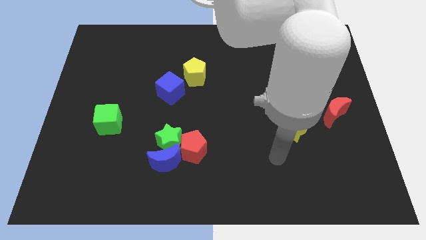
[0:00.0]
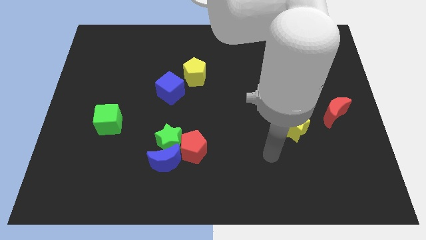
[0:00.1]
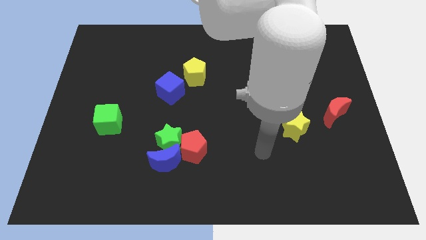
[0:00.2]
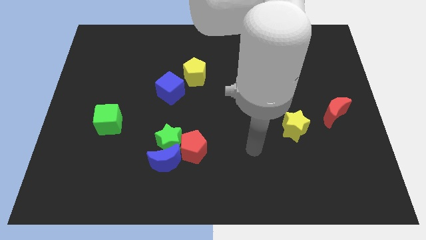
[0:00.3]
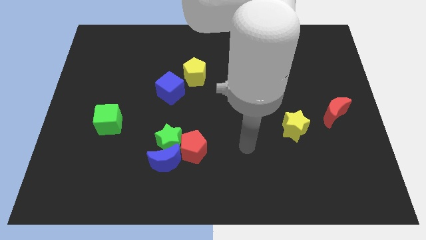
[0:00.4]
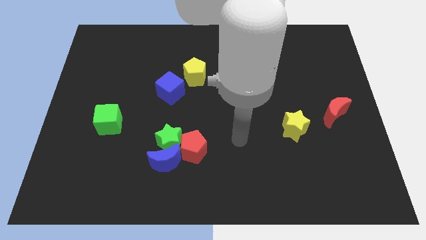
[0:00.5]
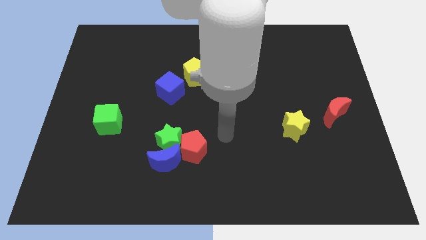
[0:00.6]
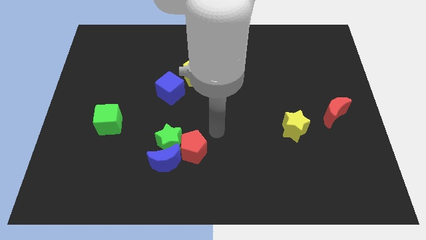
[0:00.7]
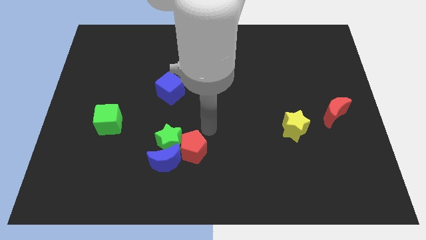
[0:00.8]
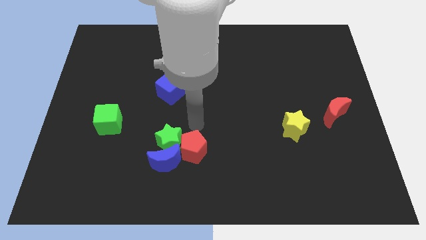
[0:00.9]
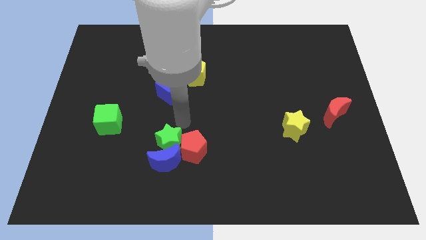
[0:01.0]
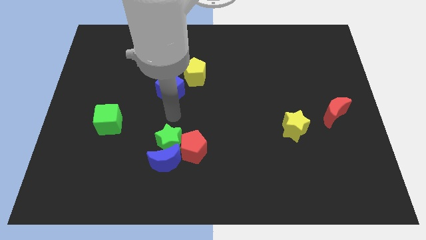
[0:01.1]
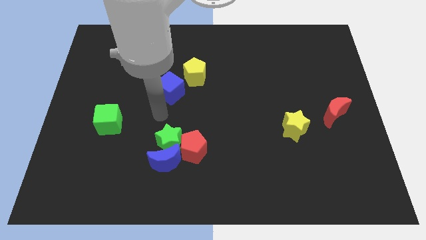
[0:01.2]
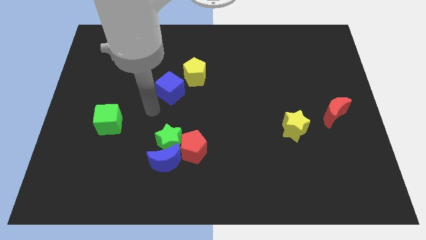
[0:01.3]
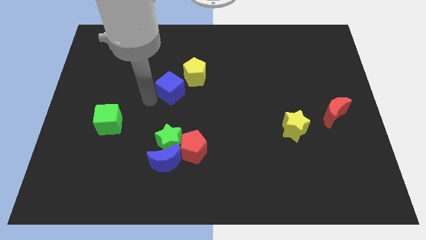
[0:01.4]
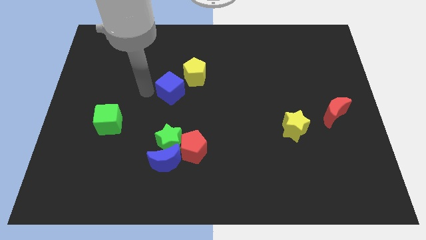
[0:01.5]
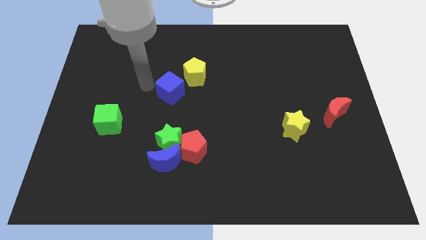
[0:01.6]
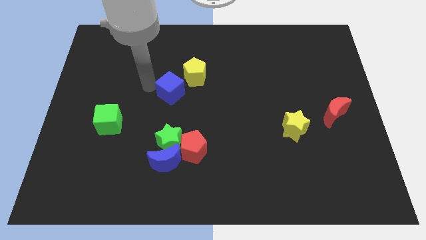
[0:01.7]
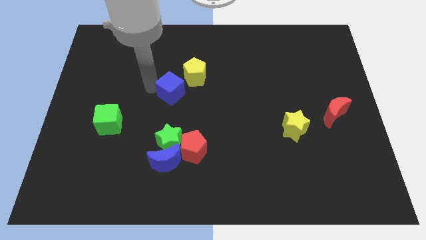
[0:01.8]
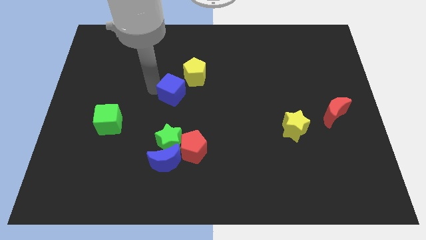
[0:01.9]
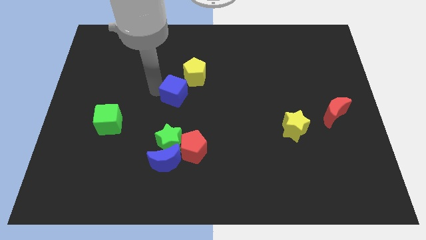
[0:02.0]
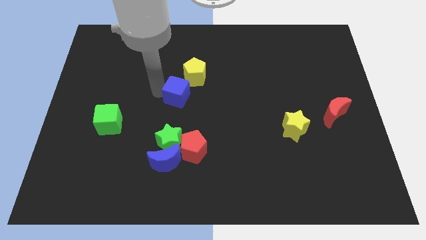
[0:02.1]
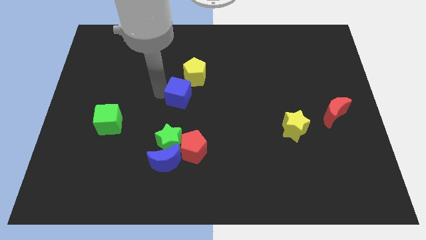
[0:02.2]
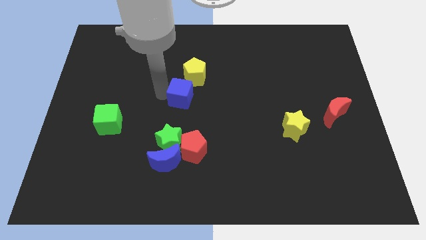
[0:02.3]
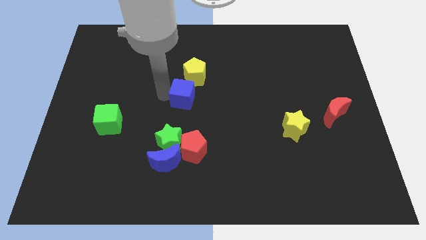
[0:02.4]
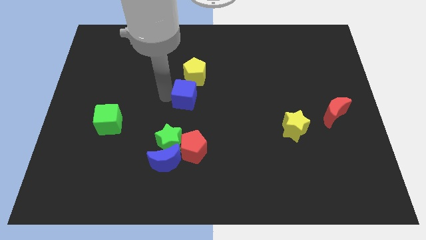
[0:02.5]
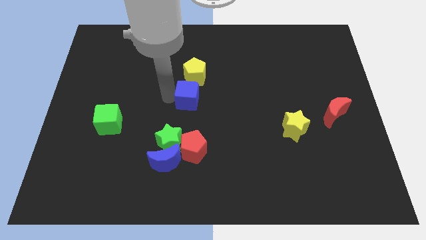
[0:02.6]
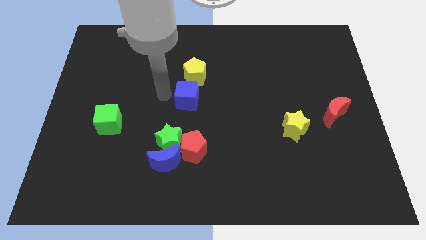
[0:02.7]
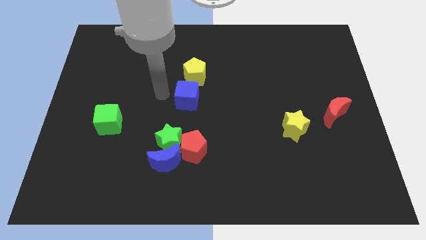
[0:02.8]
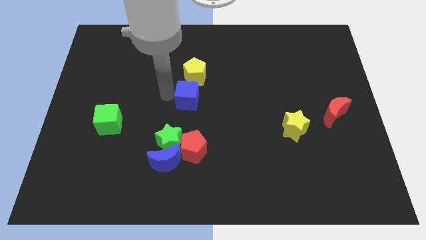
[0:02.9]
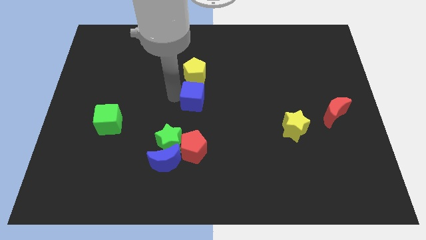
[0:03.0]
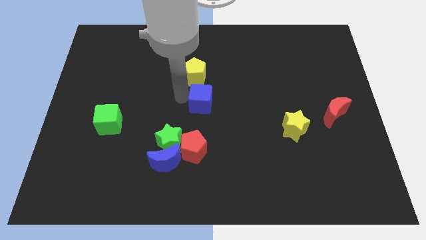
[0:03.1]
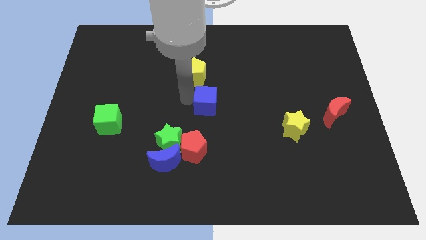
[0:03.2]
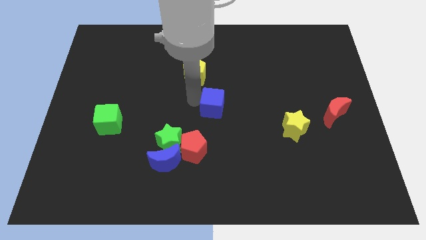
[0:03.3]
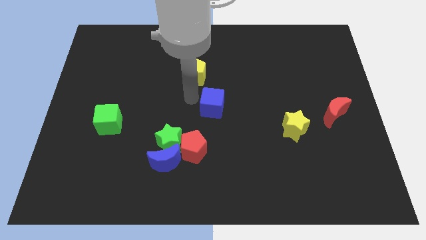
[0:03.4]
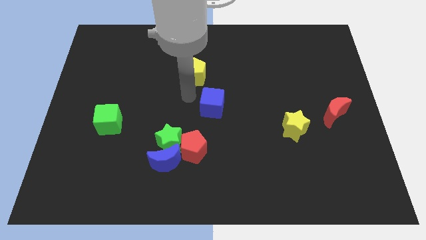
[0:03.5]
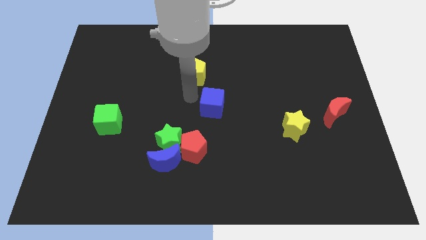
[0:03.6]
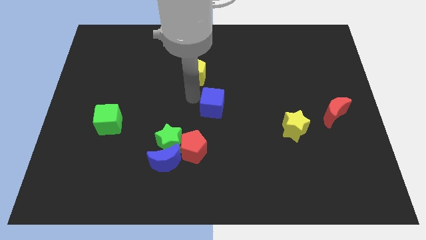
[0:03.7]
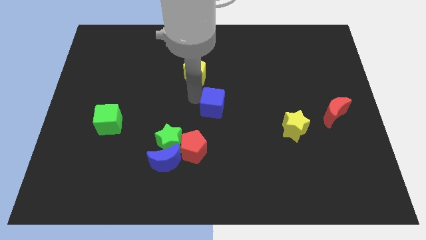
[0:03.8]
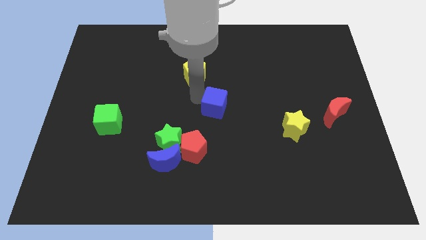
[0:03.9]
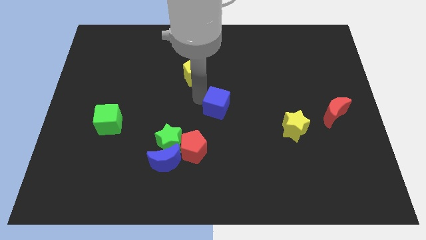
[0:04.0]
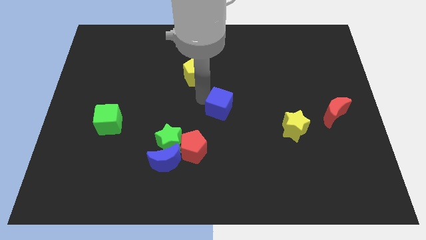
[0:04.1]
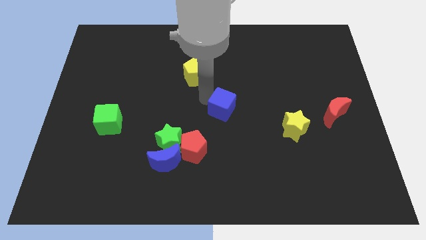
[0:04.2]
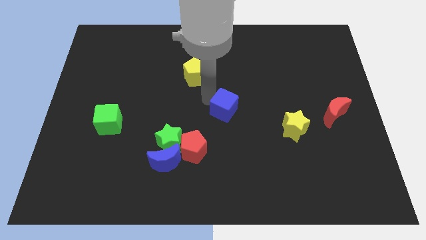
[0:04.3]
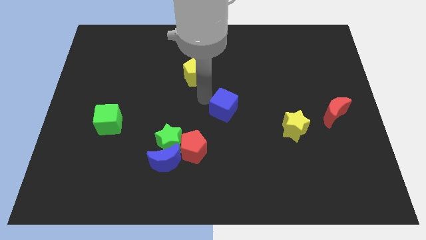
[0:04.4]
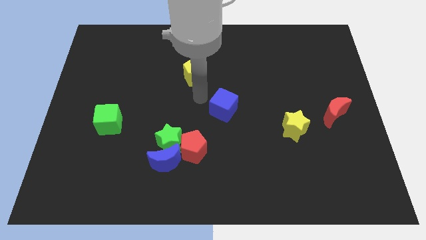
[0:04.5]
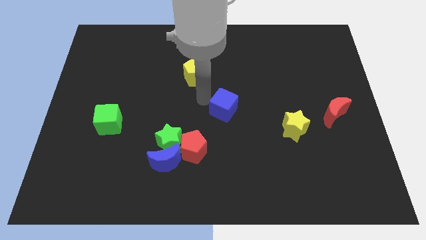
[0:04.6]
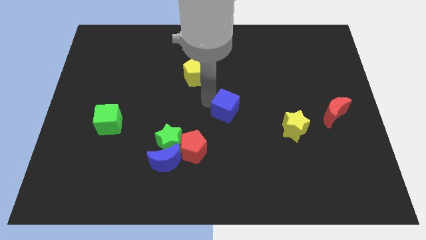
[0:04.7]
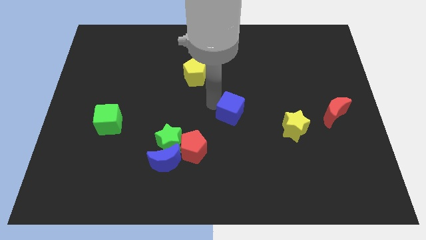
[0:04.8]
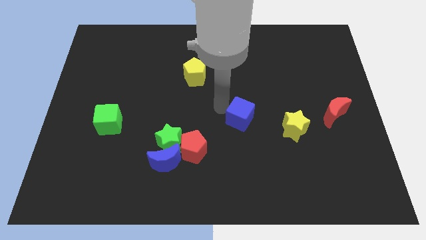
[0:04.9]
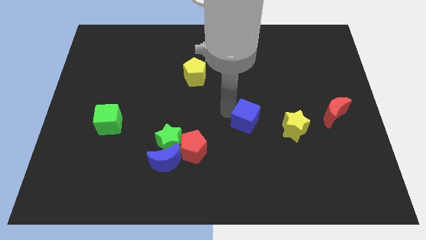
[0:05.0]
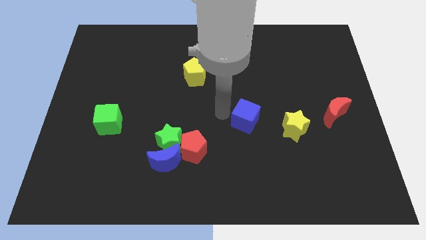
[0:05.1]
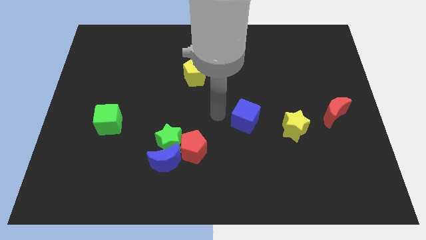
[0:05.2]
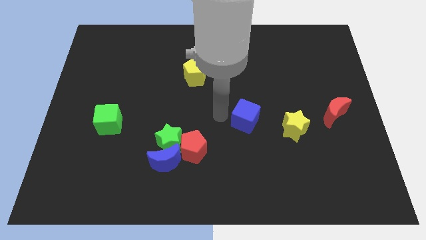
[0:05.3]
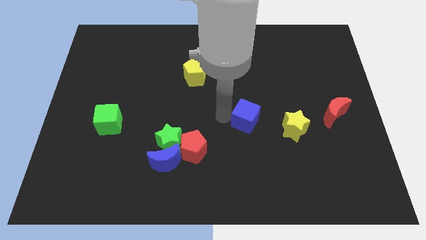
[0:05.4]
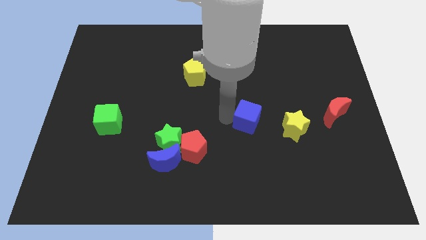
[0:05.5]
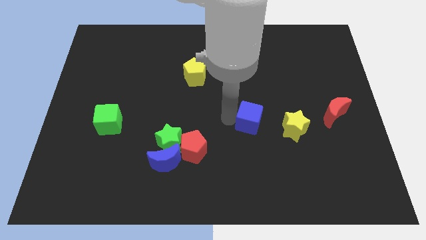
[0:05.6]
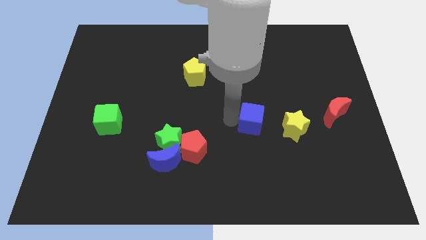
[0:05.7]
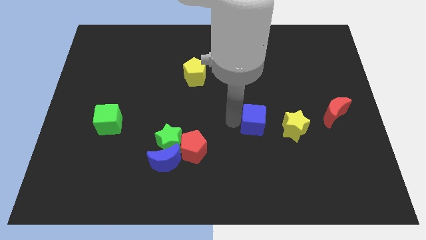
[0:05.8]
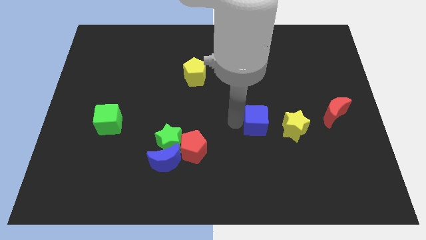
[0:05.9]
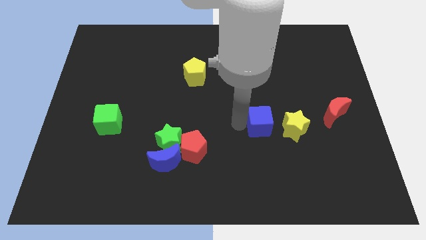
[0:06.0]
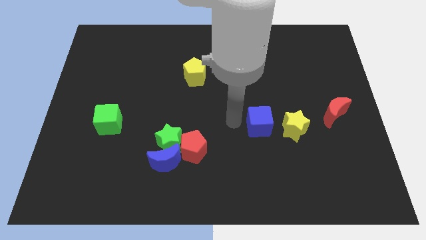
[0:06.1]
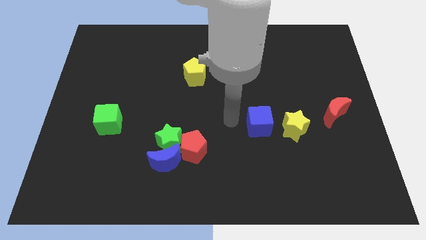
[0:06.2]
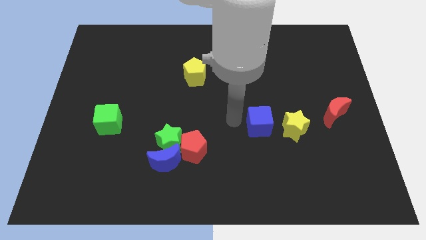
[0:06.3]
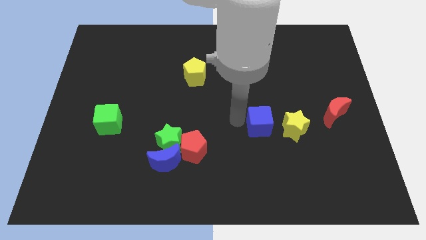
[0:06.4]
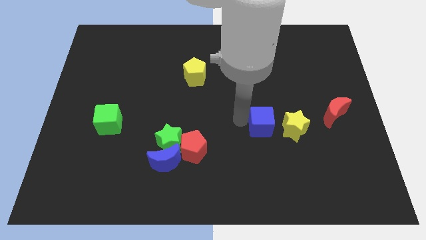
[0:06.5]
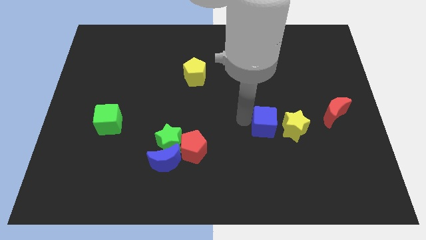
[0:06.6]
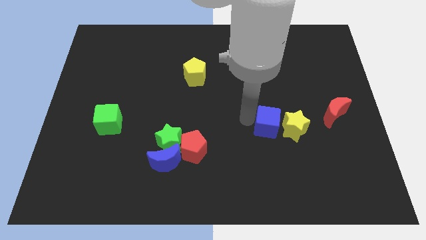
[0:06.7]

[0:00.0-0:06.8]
put the blue cube close to the yellow star
